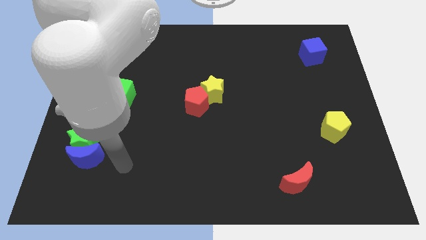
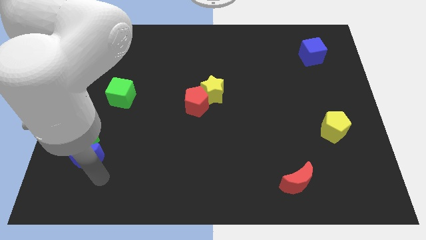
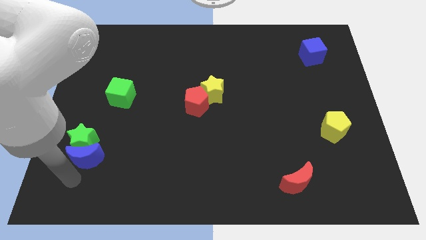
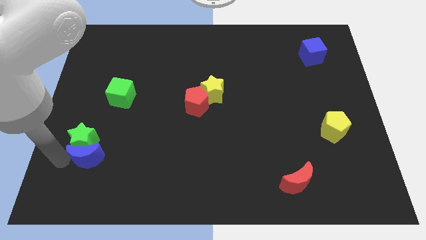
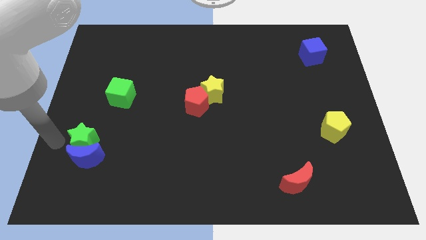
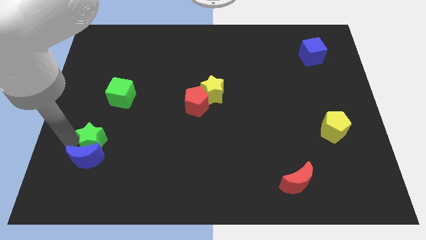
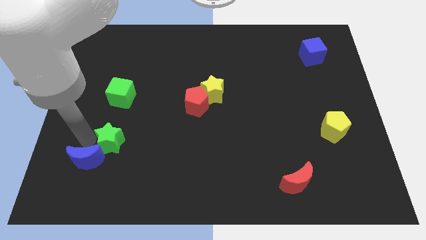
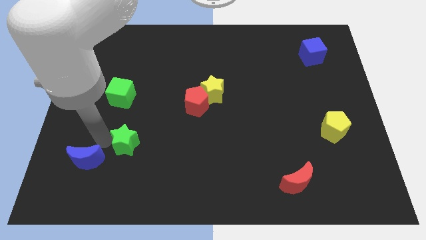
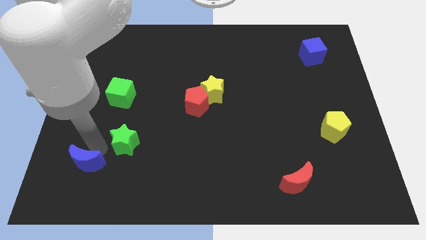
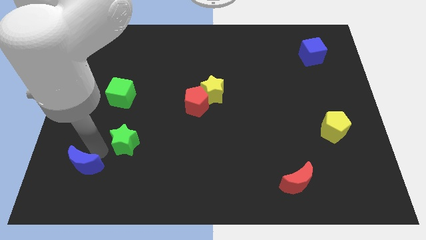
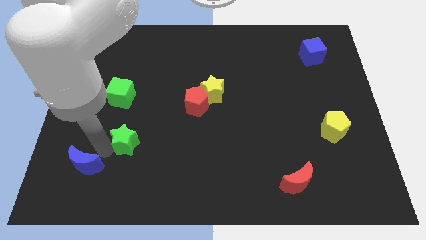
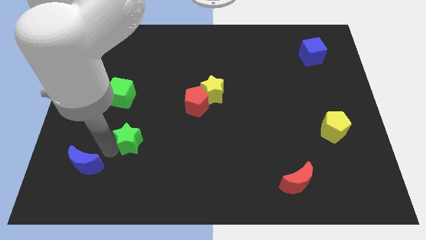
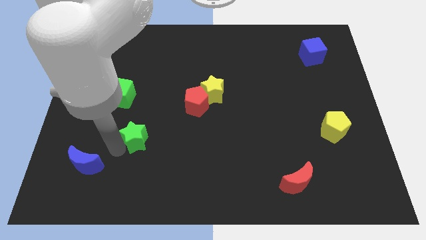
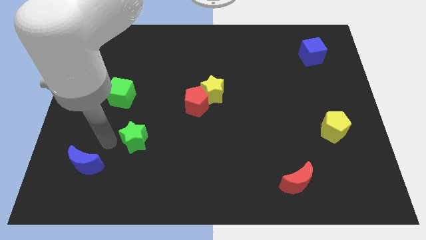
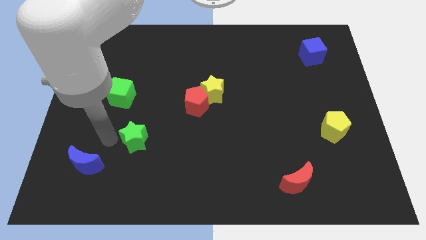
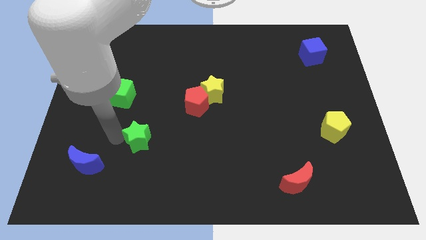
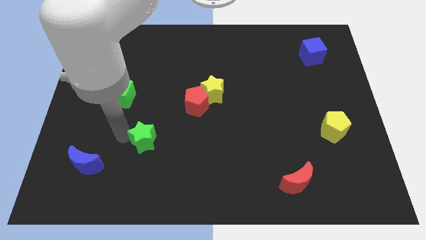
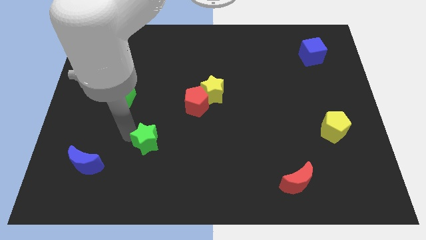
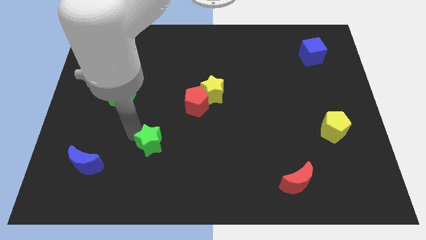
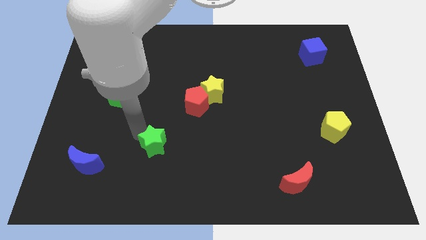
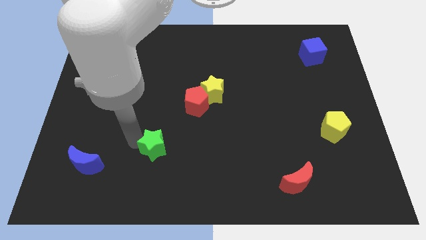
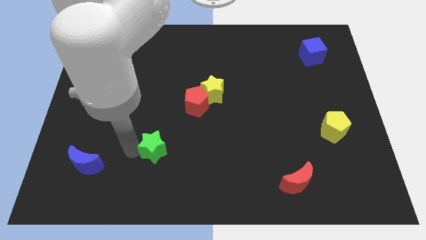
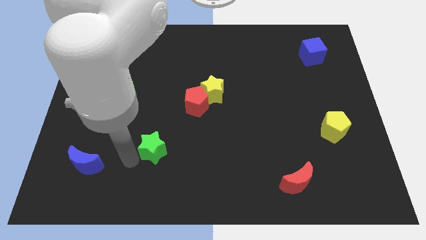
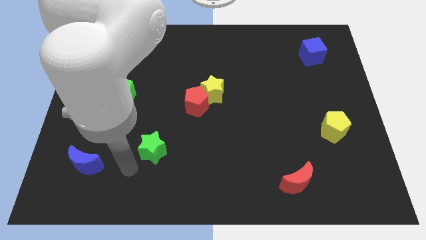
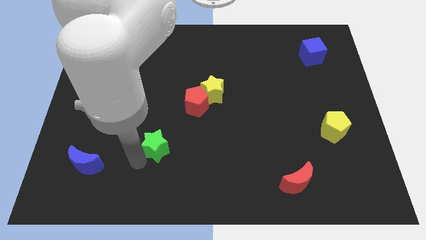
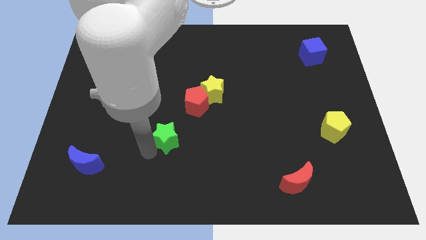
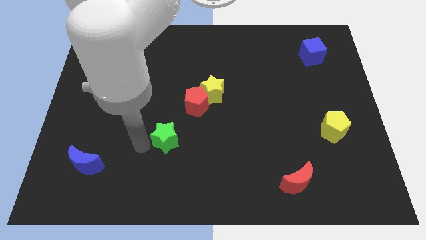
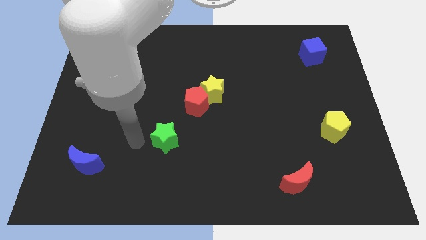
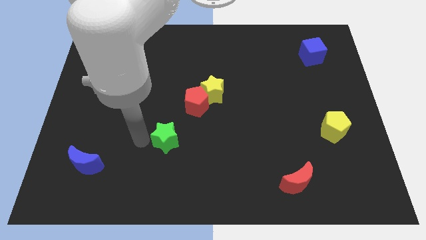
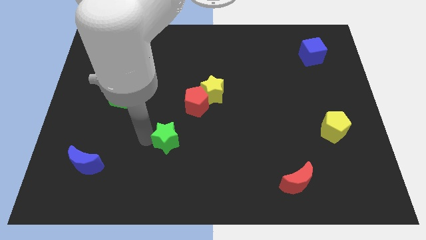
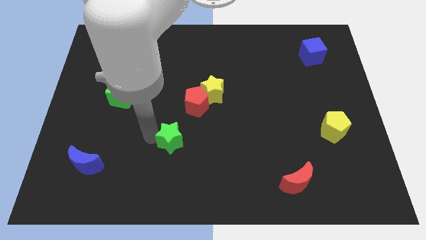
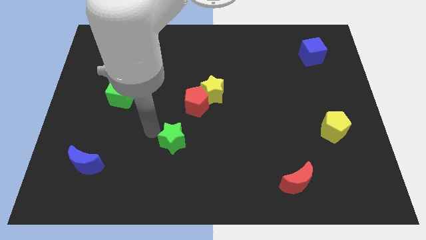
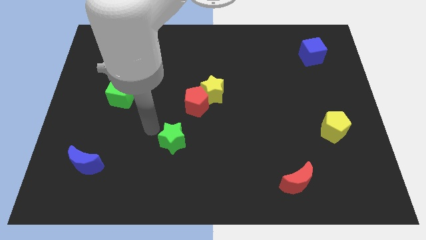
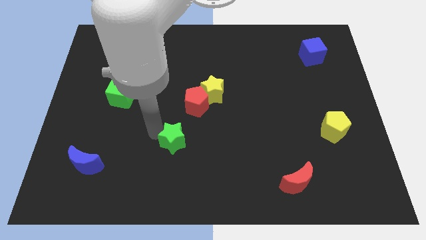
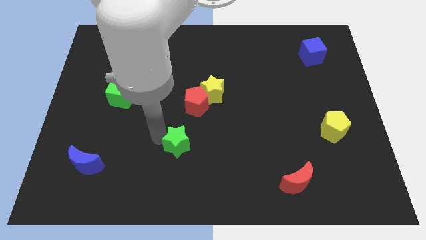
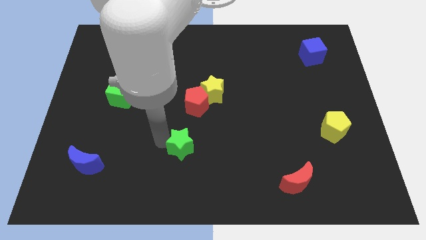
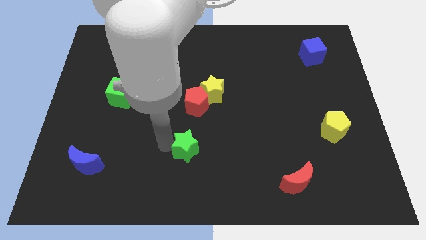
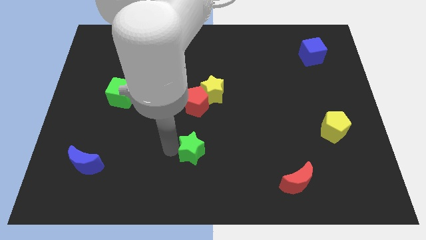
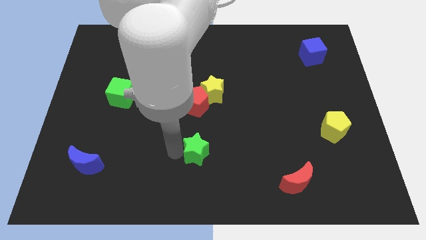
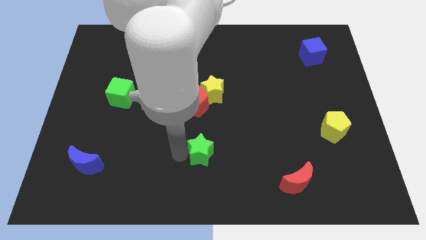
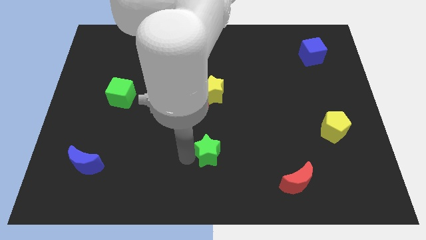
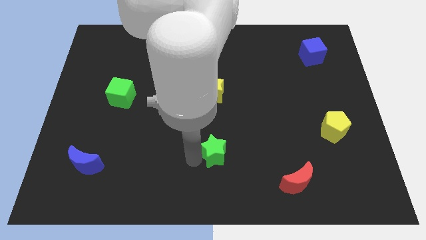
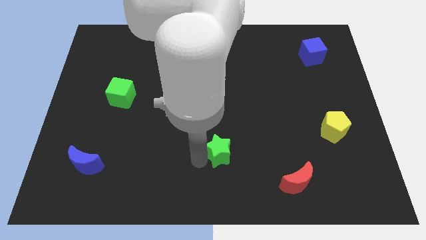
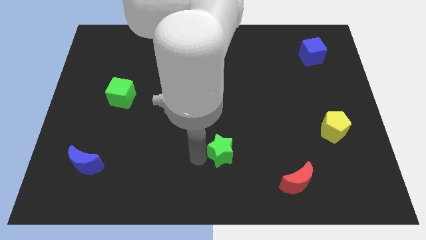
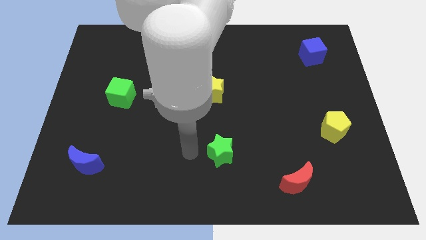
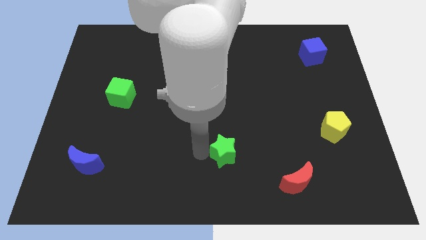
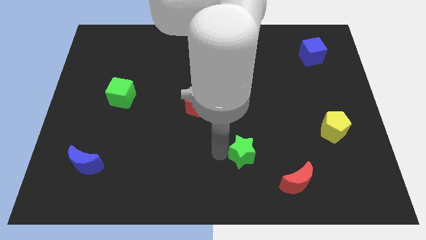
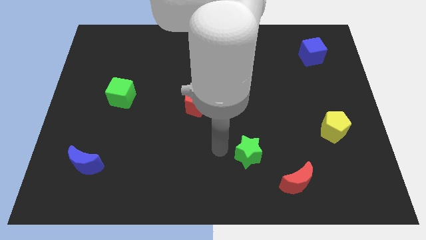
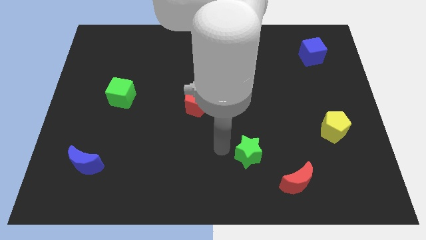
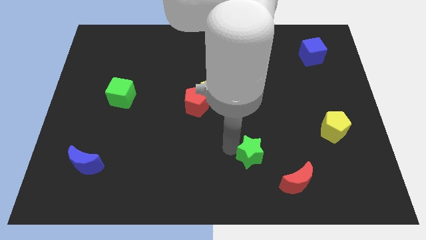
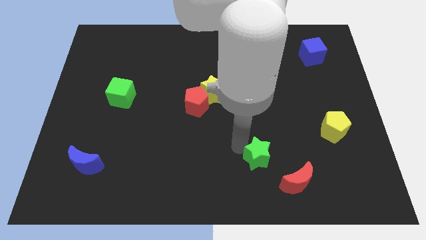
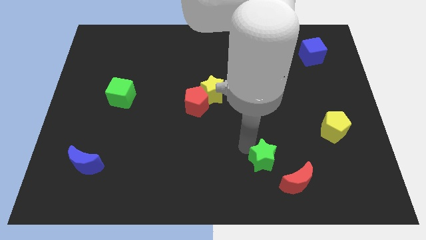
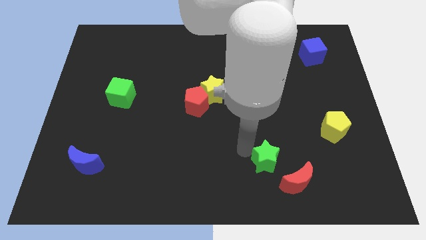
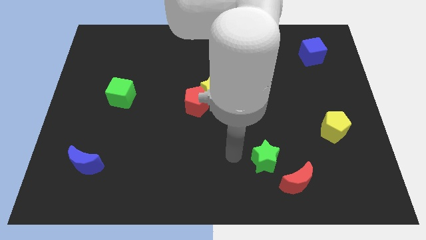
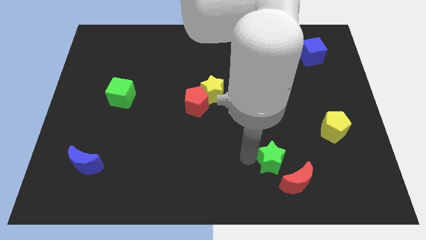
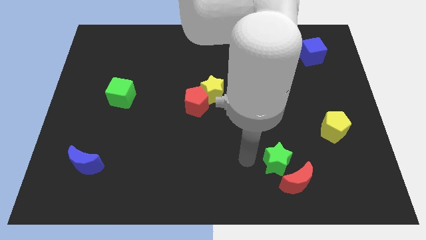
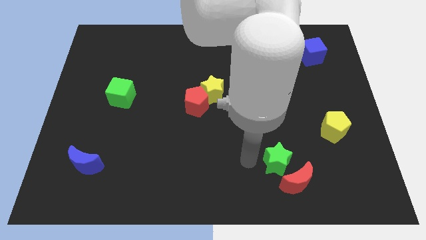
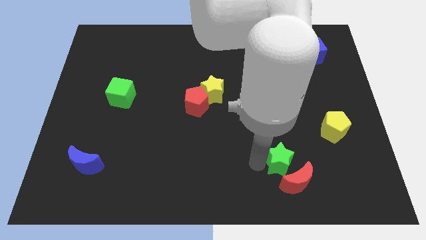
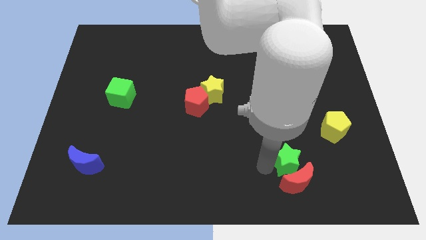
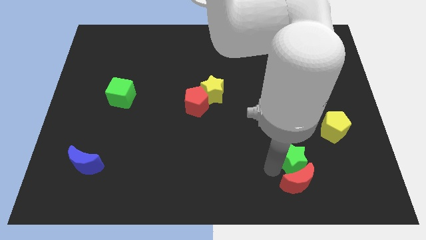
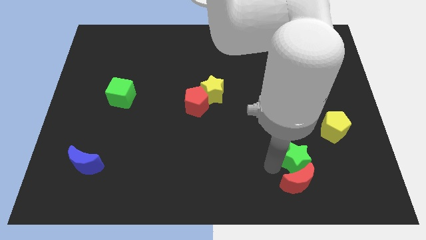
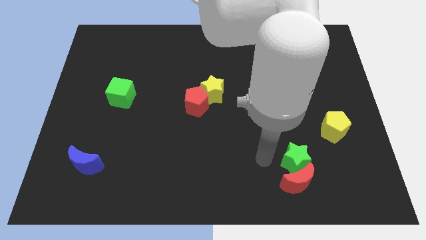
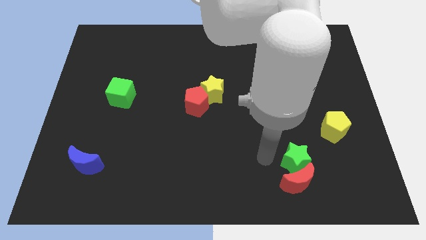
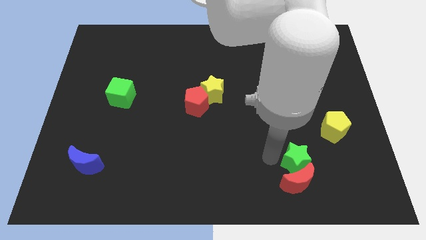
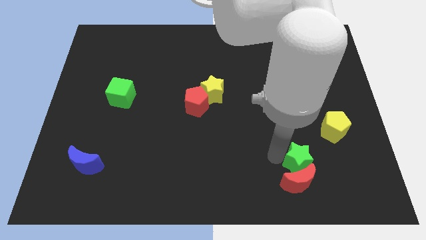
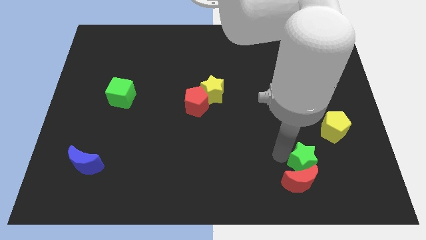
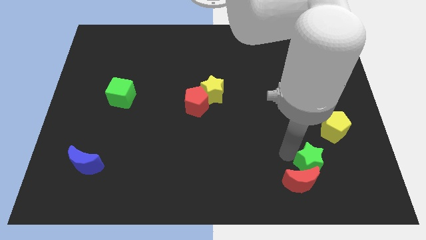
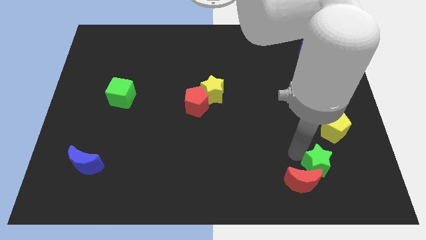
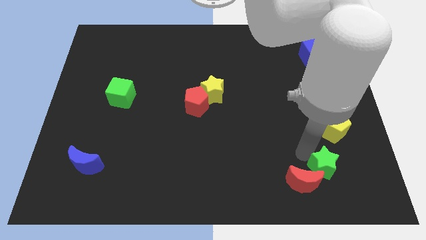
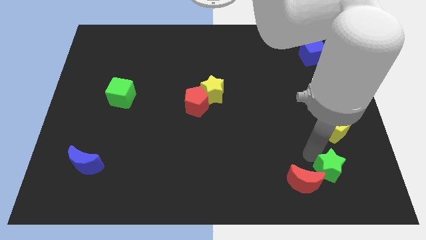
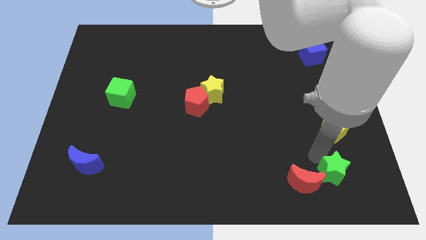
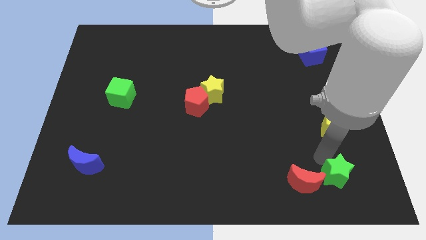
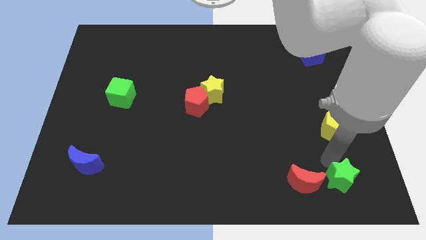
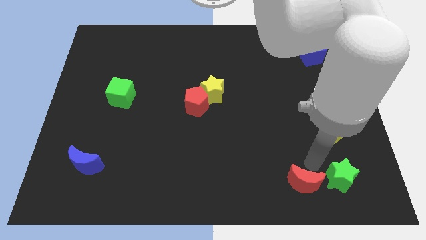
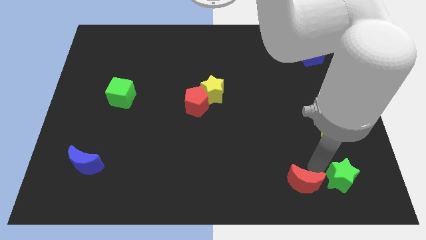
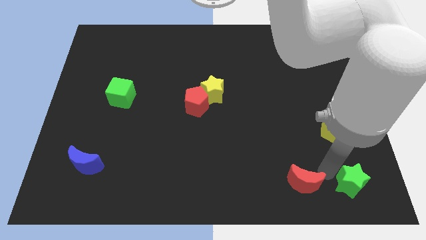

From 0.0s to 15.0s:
slide the green star to the bottom right corner

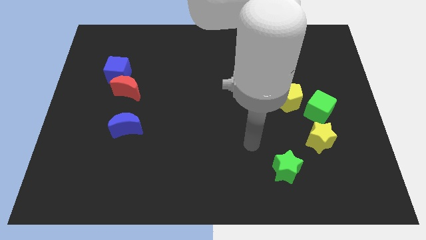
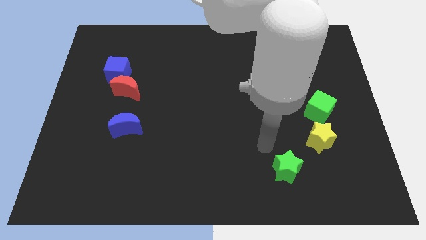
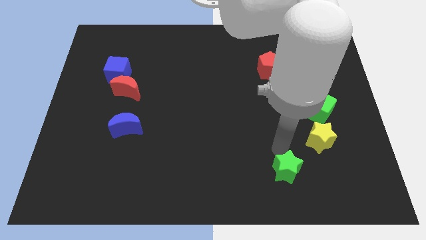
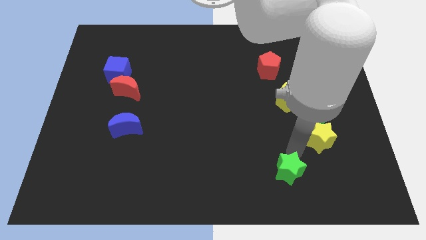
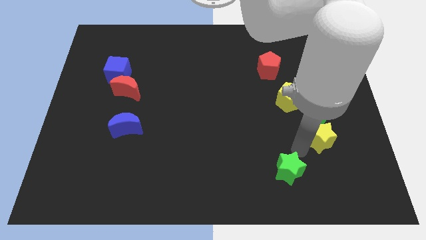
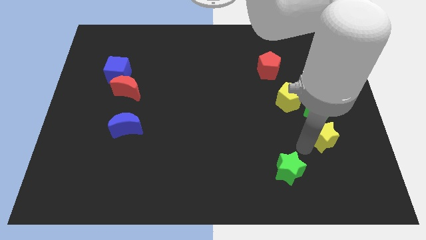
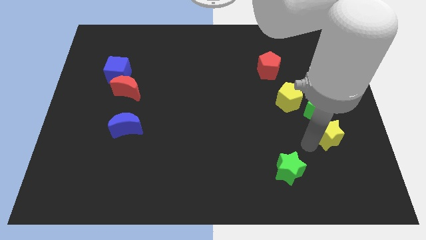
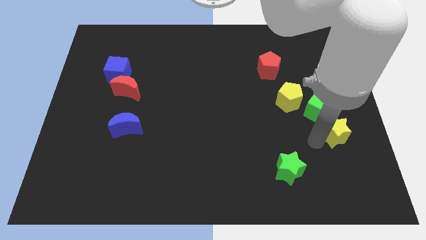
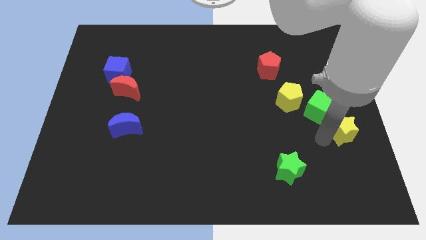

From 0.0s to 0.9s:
push the yellow star to the center right
